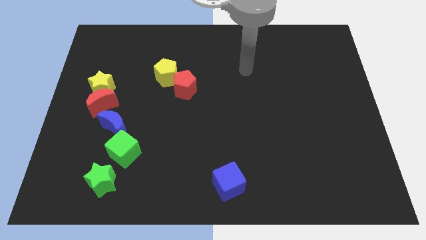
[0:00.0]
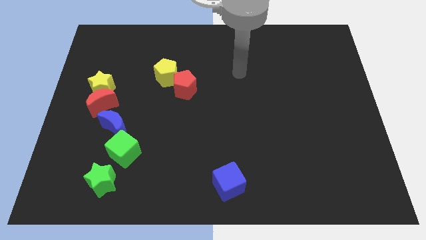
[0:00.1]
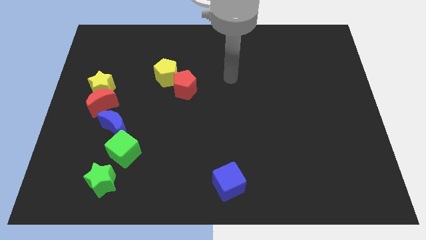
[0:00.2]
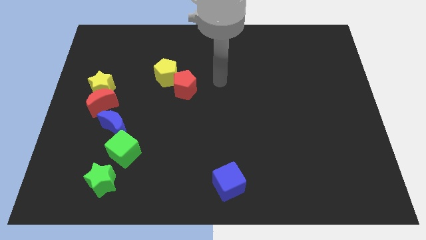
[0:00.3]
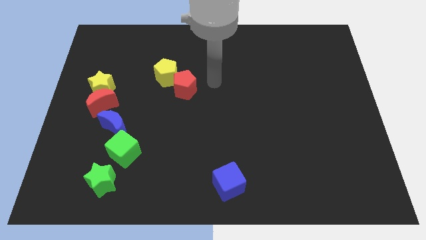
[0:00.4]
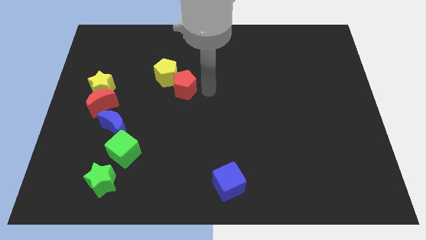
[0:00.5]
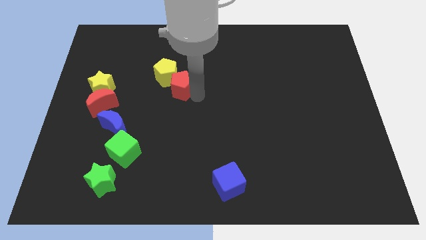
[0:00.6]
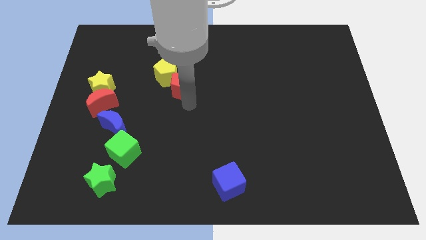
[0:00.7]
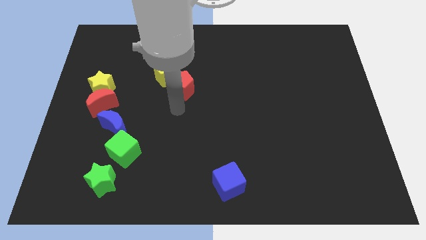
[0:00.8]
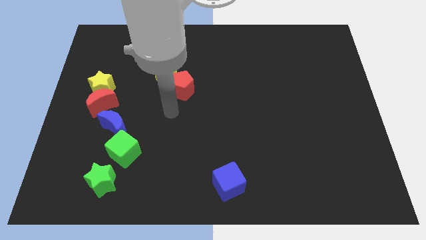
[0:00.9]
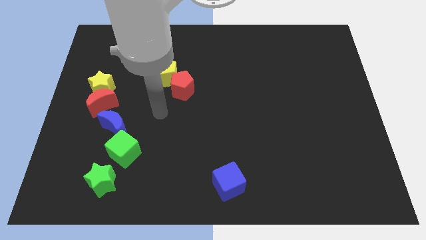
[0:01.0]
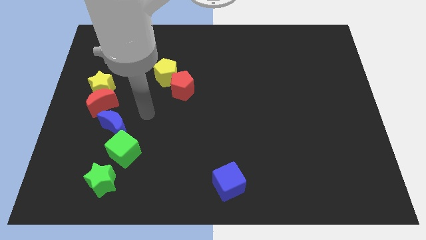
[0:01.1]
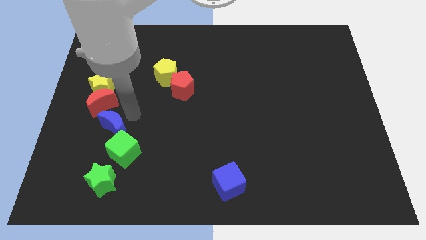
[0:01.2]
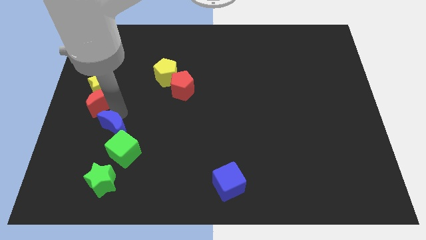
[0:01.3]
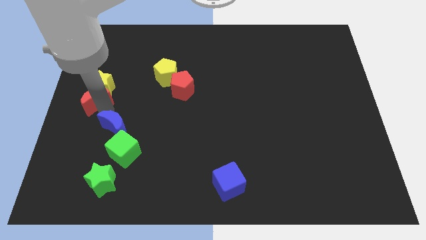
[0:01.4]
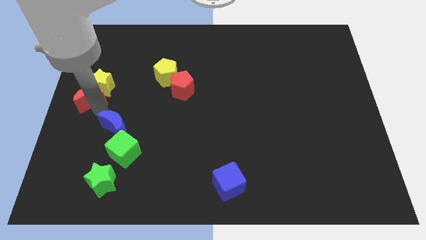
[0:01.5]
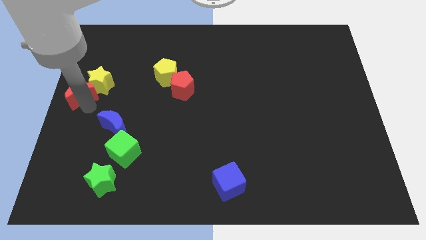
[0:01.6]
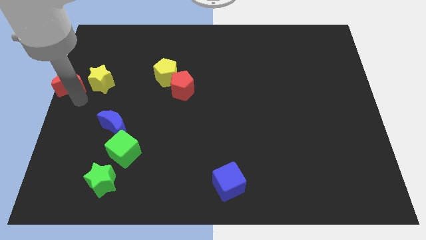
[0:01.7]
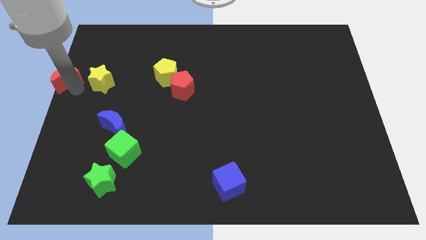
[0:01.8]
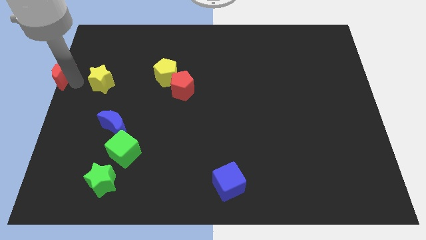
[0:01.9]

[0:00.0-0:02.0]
pull the yellow star apart from the red moon

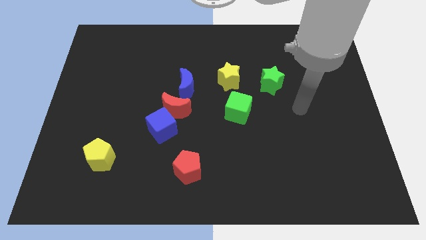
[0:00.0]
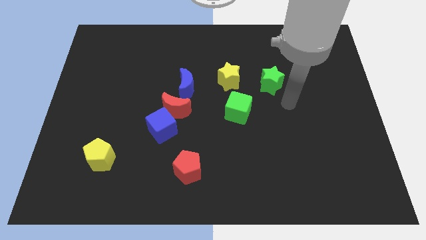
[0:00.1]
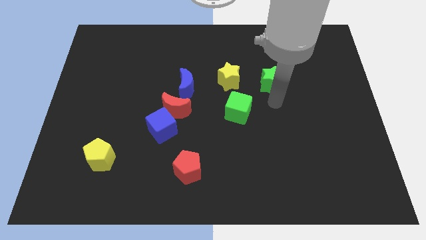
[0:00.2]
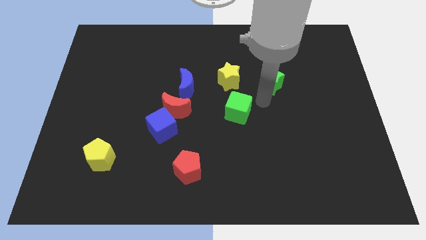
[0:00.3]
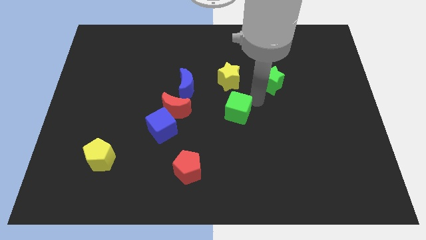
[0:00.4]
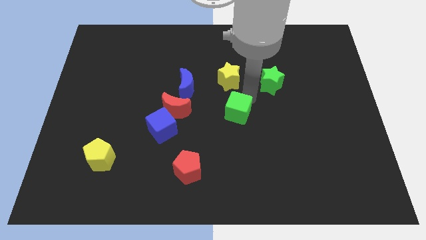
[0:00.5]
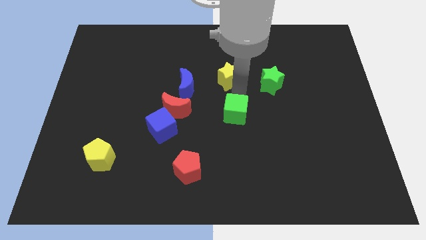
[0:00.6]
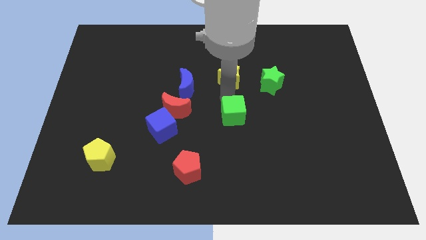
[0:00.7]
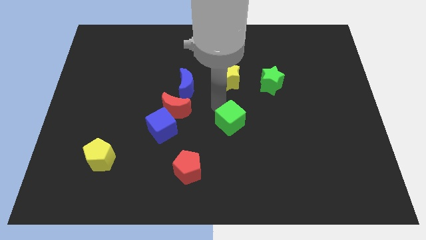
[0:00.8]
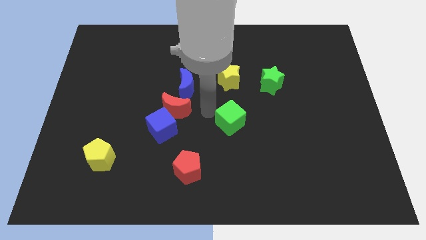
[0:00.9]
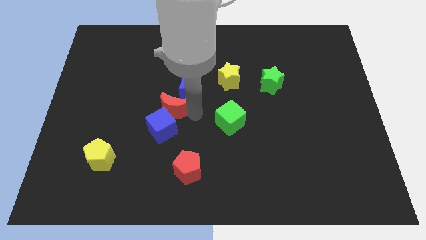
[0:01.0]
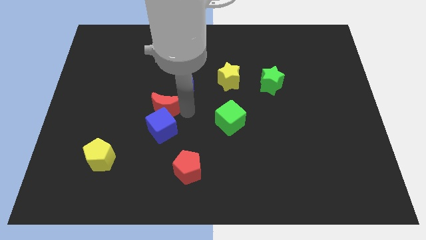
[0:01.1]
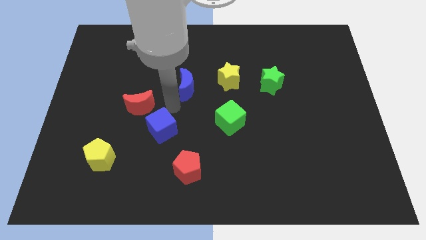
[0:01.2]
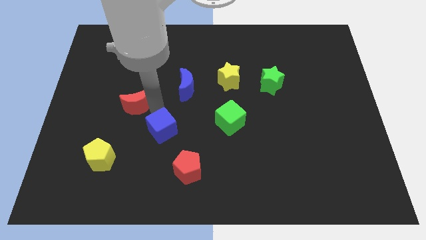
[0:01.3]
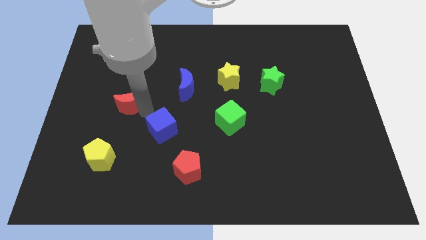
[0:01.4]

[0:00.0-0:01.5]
separate the blue cube from the red moon

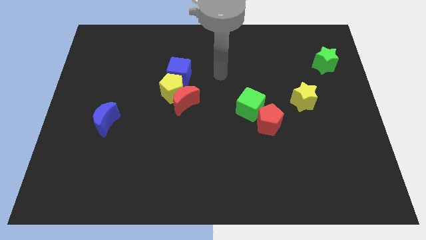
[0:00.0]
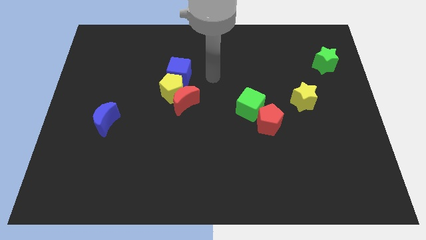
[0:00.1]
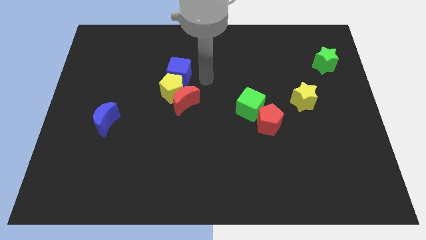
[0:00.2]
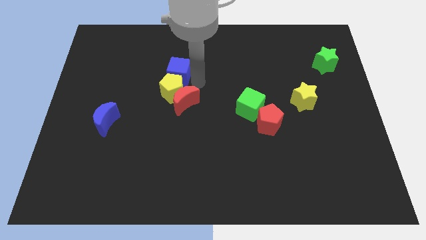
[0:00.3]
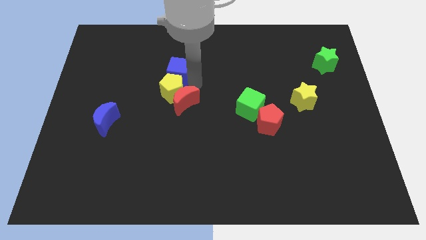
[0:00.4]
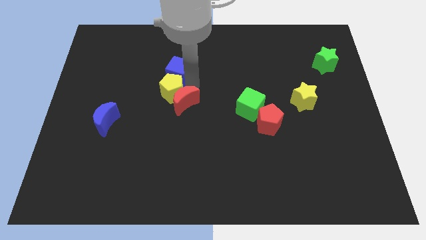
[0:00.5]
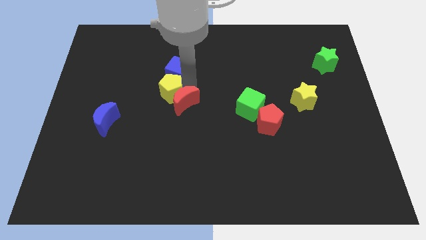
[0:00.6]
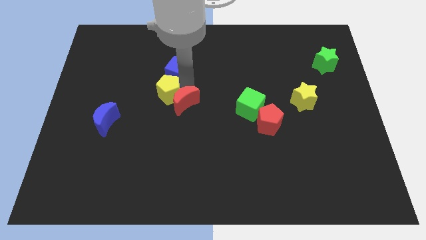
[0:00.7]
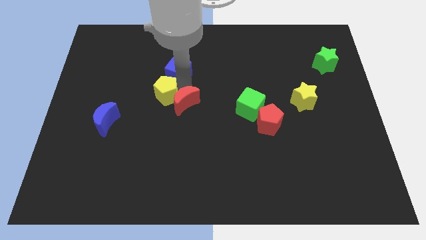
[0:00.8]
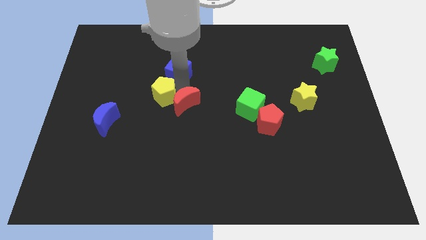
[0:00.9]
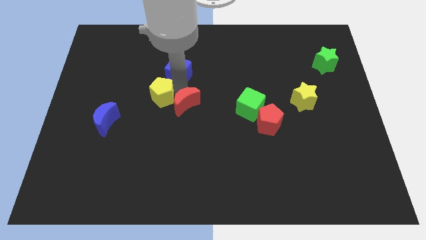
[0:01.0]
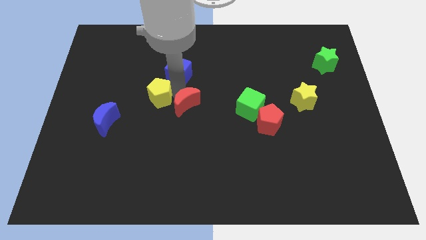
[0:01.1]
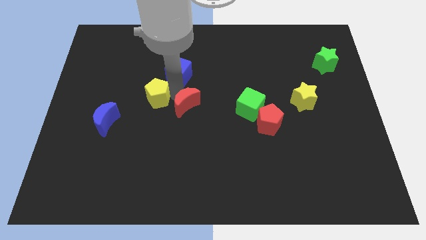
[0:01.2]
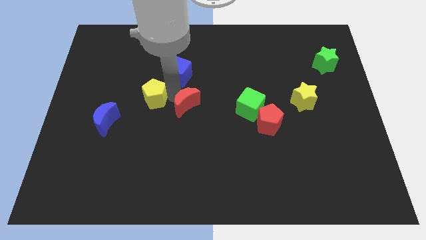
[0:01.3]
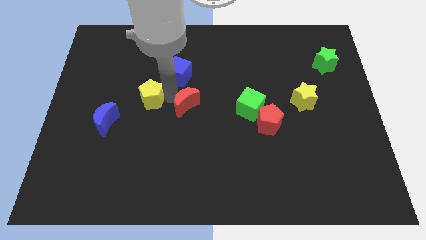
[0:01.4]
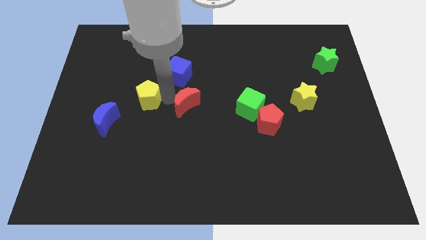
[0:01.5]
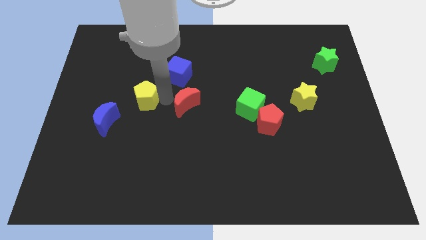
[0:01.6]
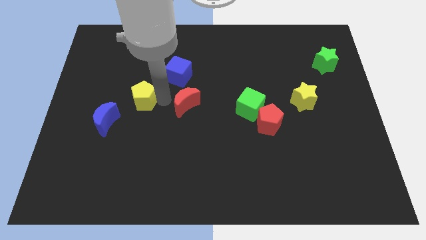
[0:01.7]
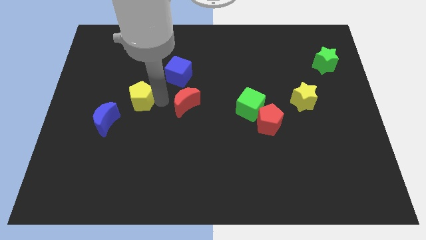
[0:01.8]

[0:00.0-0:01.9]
move the yellow pentagon away from the red moon and blue cube

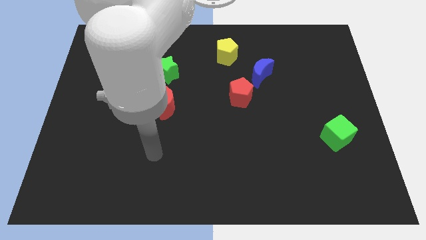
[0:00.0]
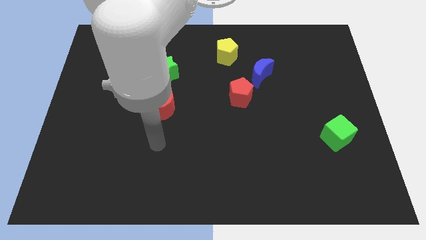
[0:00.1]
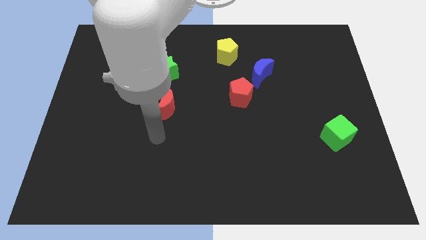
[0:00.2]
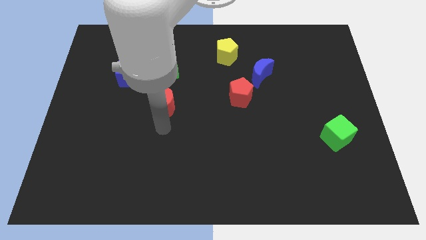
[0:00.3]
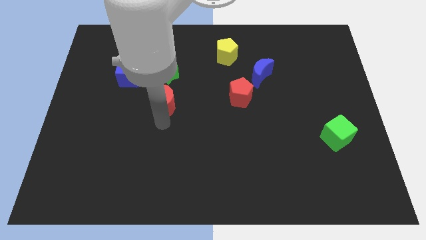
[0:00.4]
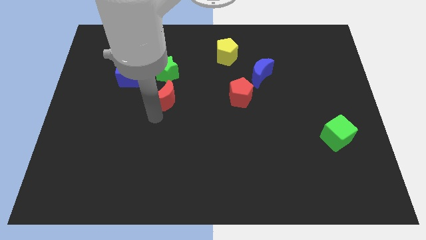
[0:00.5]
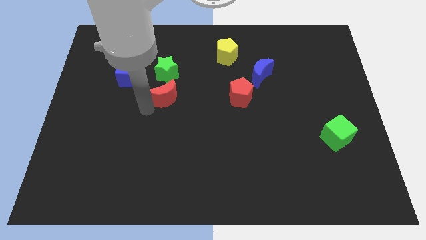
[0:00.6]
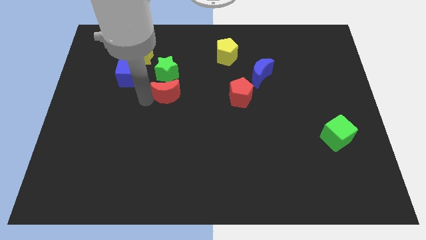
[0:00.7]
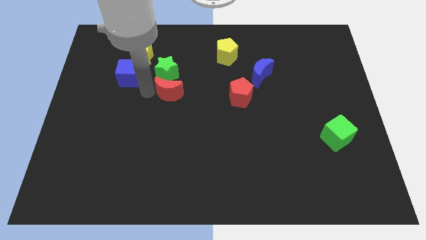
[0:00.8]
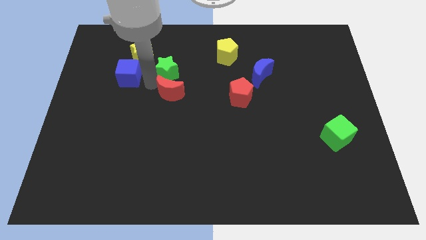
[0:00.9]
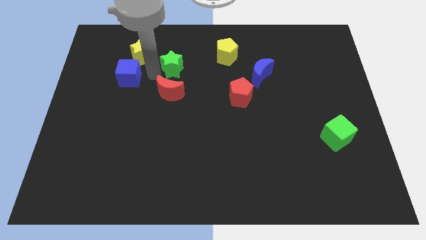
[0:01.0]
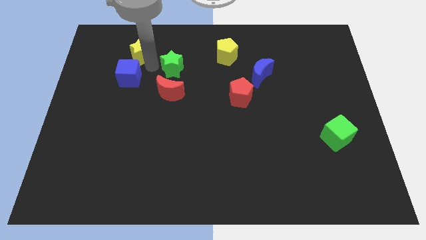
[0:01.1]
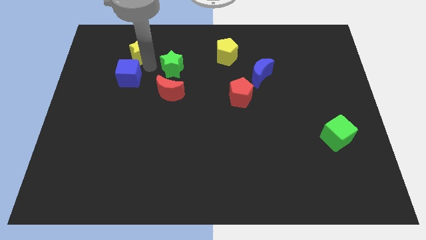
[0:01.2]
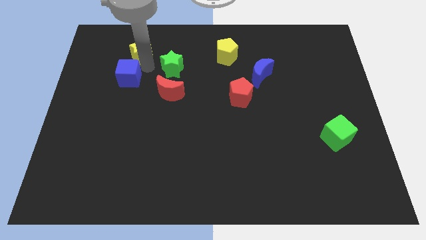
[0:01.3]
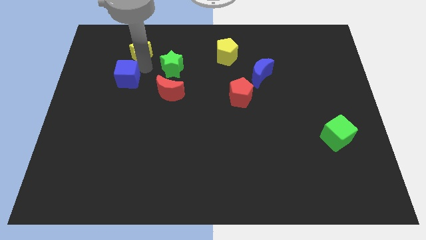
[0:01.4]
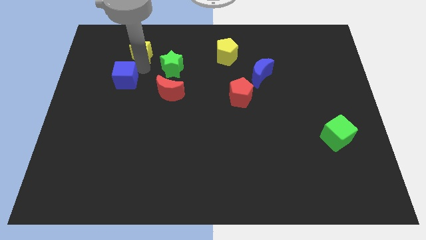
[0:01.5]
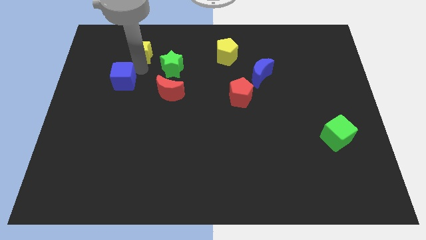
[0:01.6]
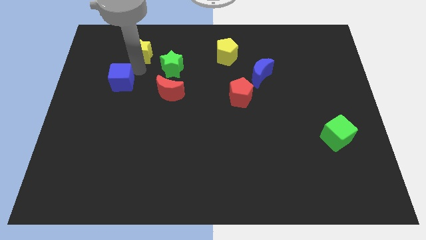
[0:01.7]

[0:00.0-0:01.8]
pull the blue cube apart from the yellow star and green star

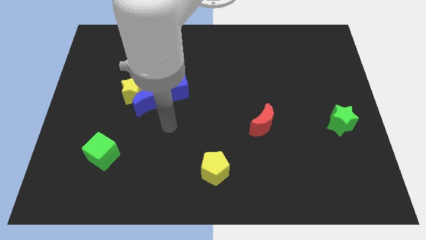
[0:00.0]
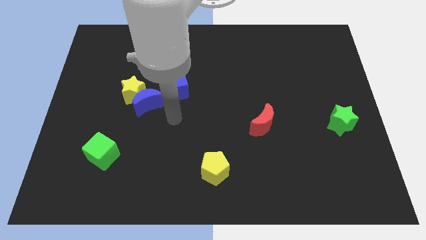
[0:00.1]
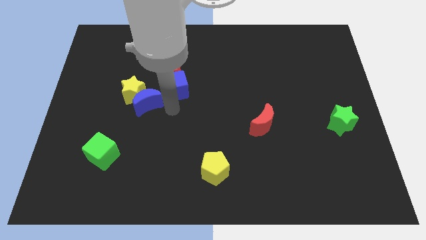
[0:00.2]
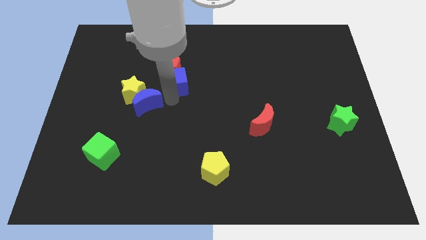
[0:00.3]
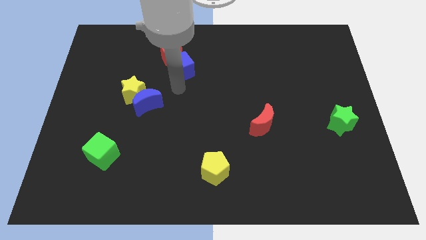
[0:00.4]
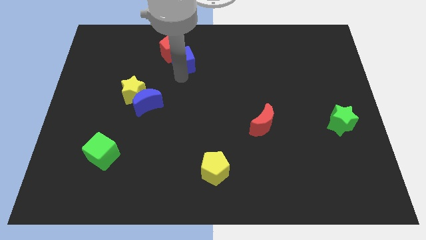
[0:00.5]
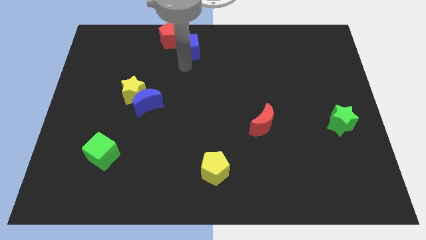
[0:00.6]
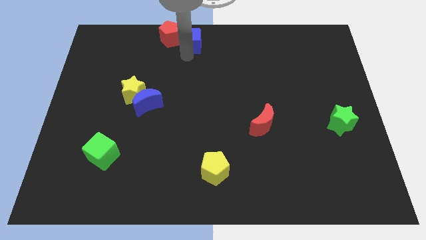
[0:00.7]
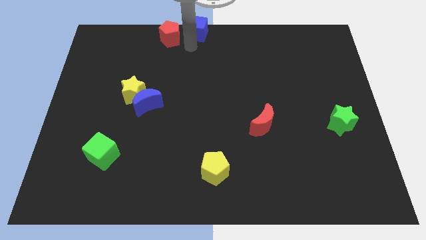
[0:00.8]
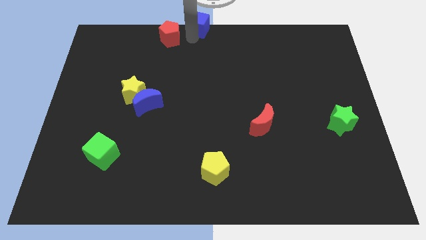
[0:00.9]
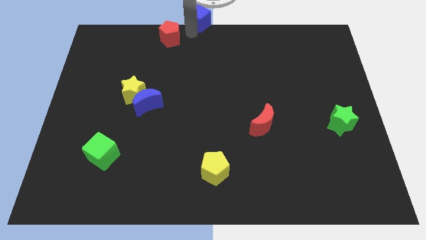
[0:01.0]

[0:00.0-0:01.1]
move the red pentagon away from the blue cube

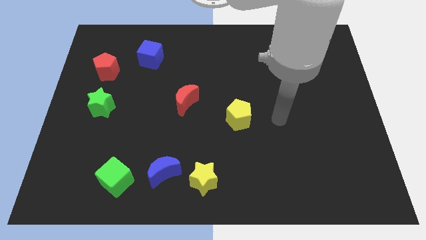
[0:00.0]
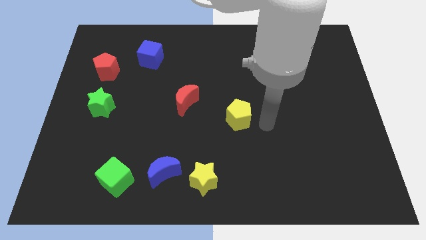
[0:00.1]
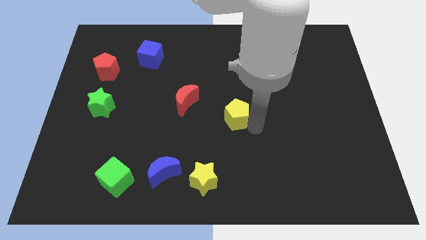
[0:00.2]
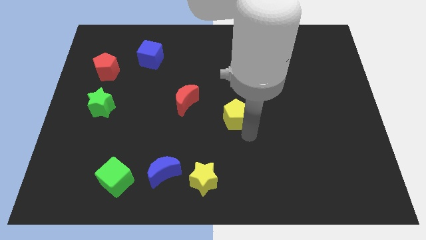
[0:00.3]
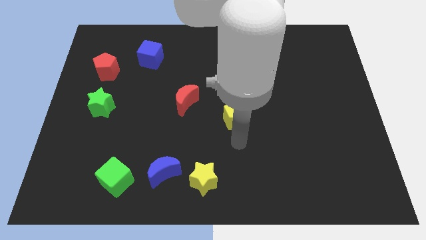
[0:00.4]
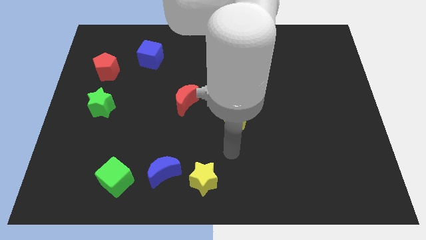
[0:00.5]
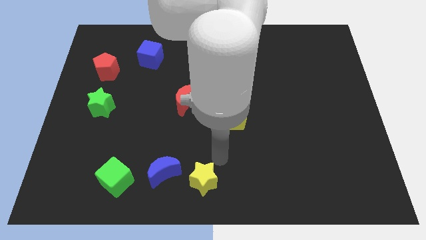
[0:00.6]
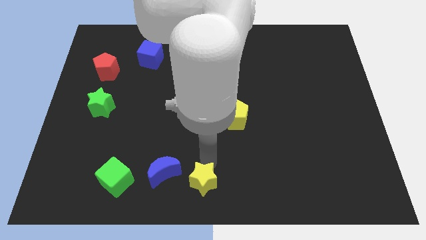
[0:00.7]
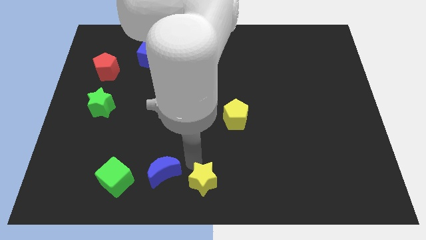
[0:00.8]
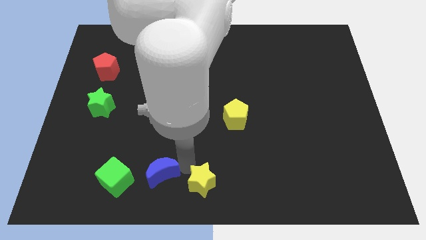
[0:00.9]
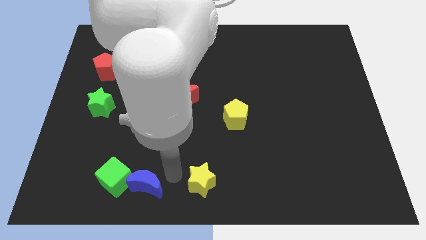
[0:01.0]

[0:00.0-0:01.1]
move the yellow star away from the blue moon
